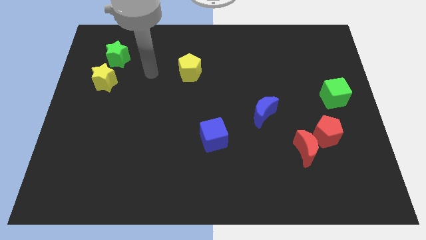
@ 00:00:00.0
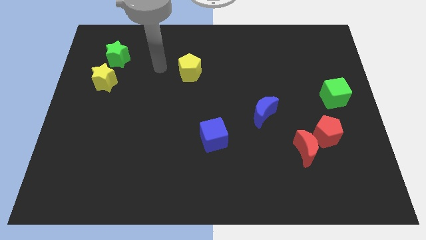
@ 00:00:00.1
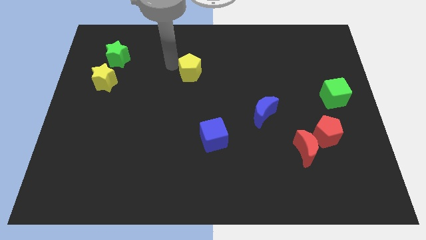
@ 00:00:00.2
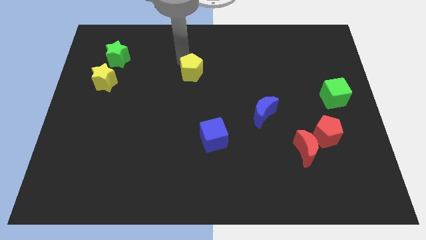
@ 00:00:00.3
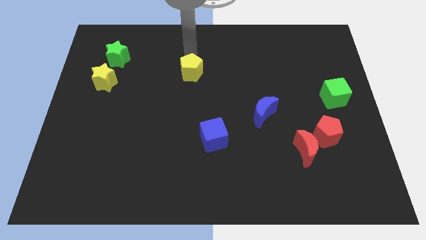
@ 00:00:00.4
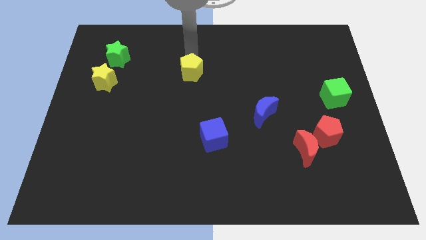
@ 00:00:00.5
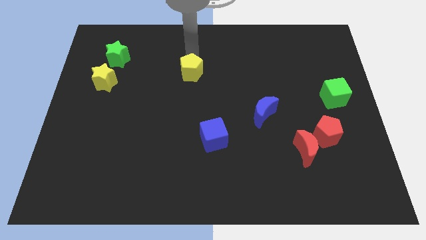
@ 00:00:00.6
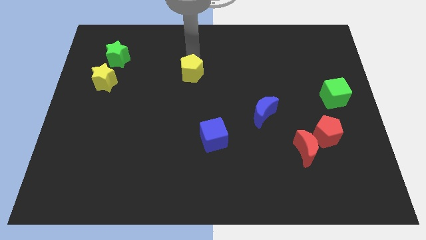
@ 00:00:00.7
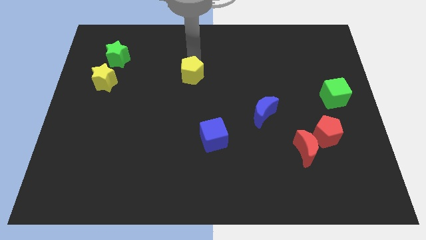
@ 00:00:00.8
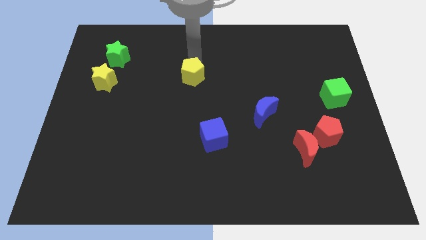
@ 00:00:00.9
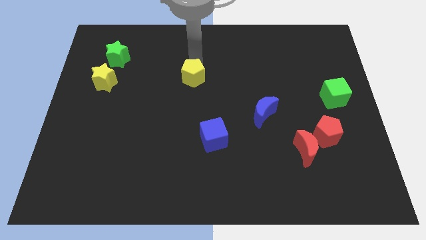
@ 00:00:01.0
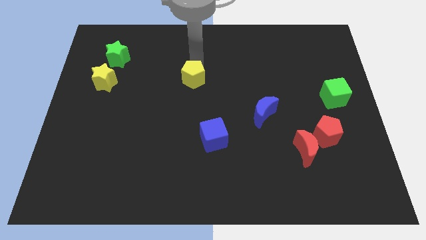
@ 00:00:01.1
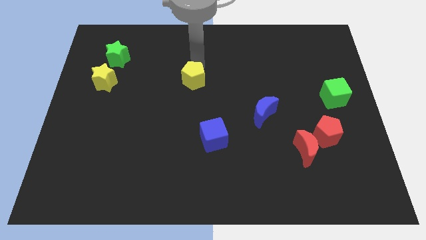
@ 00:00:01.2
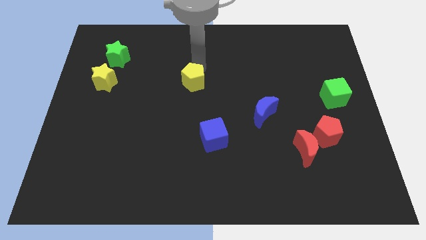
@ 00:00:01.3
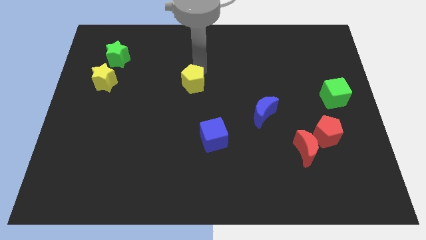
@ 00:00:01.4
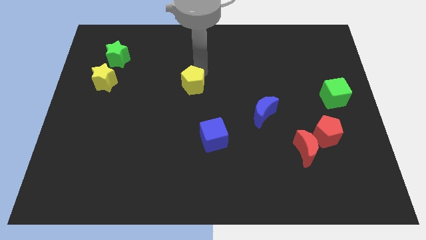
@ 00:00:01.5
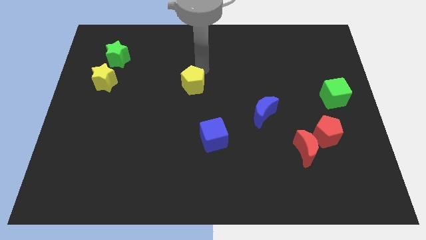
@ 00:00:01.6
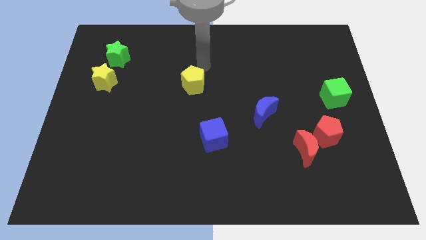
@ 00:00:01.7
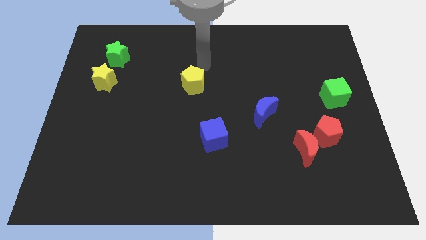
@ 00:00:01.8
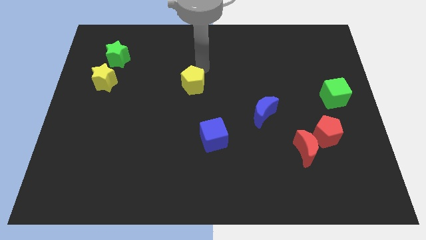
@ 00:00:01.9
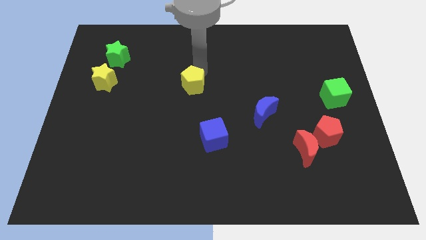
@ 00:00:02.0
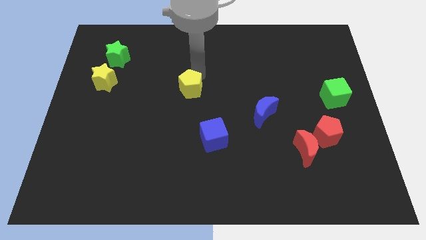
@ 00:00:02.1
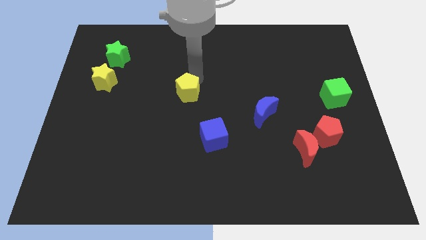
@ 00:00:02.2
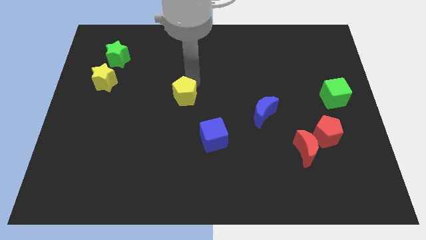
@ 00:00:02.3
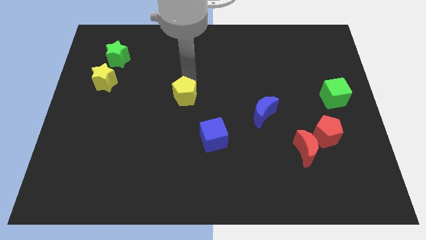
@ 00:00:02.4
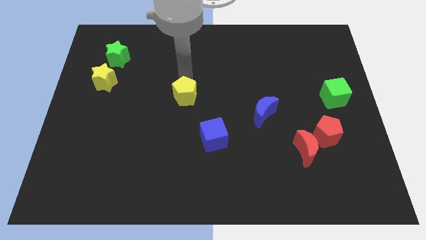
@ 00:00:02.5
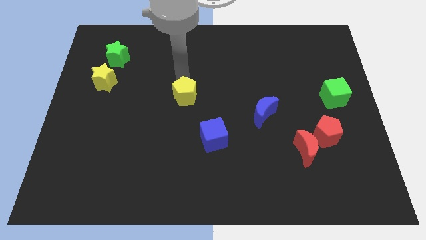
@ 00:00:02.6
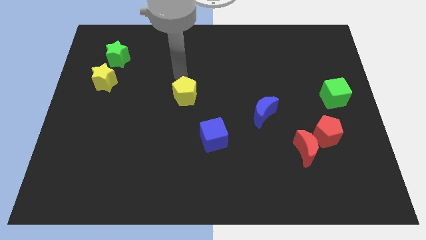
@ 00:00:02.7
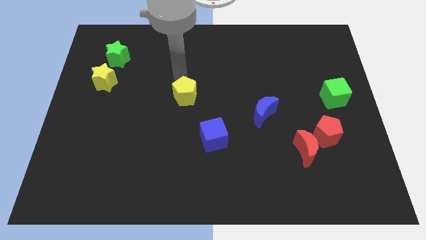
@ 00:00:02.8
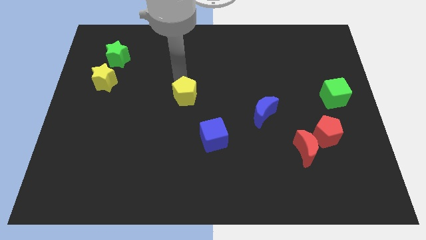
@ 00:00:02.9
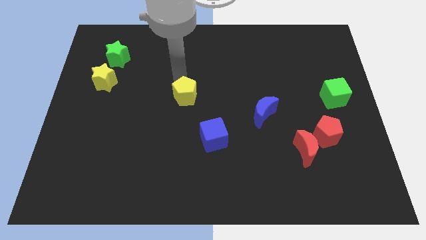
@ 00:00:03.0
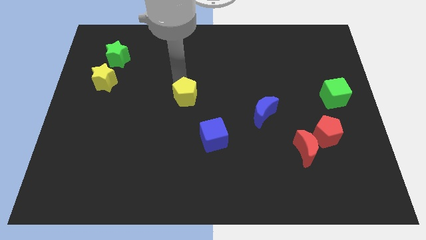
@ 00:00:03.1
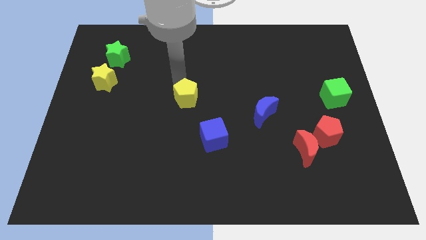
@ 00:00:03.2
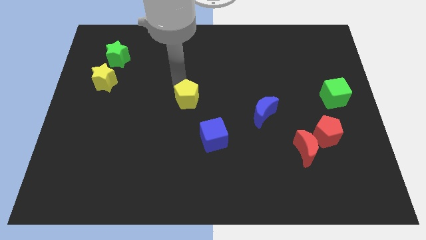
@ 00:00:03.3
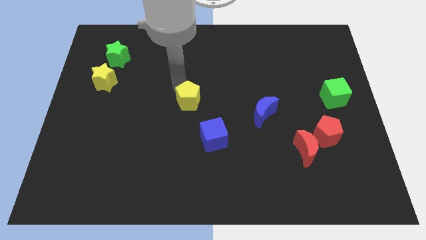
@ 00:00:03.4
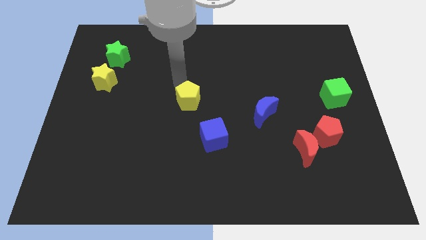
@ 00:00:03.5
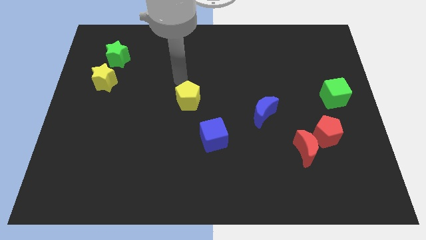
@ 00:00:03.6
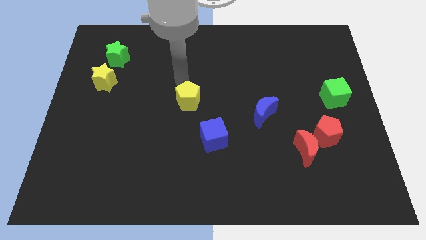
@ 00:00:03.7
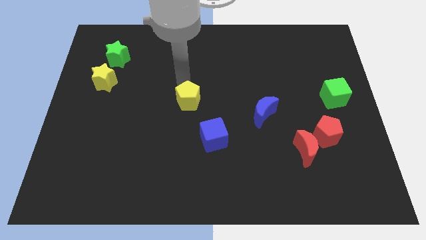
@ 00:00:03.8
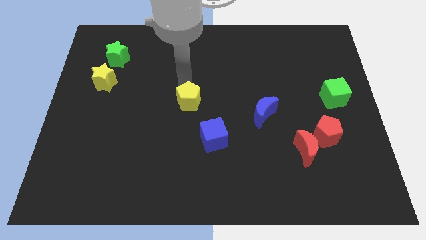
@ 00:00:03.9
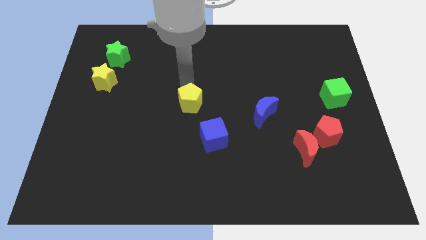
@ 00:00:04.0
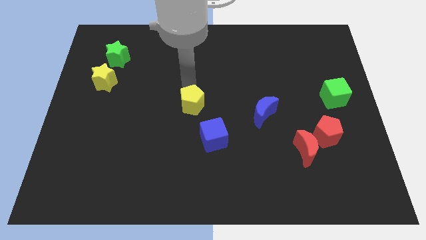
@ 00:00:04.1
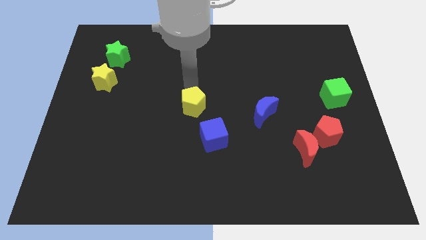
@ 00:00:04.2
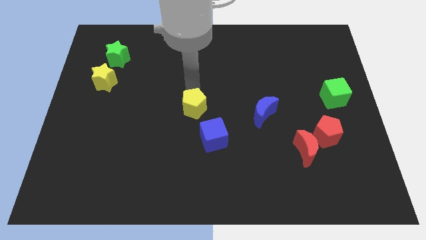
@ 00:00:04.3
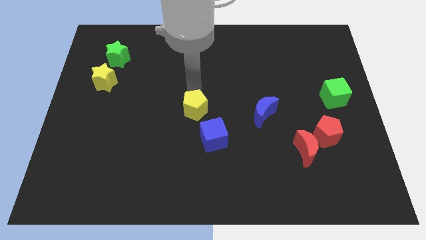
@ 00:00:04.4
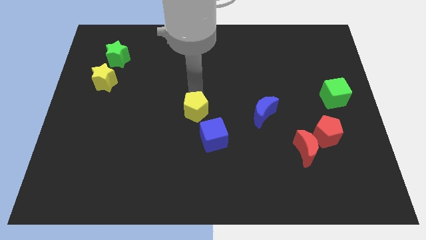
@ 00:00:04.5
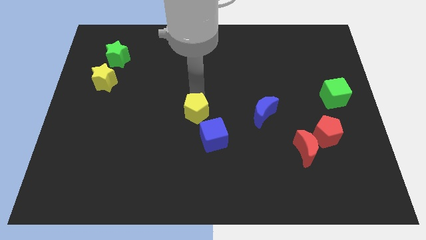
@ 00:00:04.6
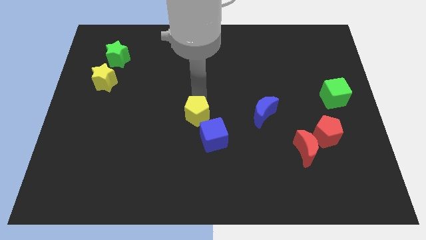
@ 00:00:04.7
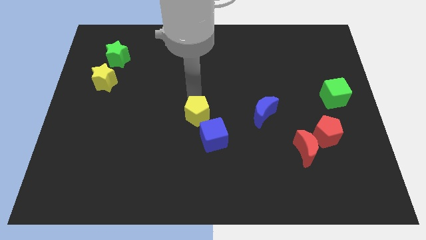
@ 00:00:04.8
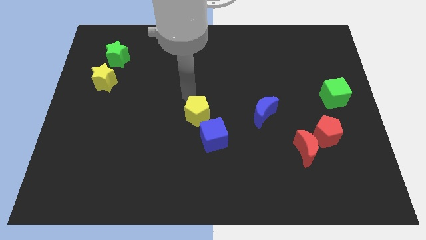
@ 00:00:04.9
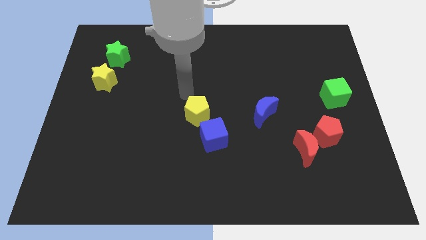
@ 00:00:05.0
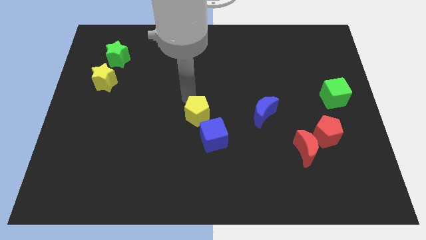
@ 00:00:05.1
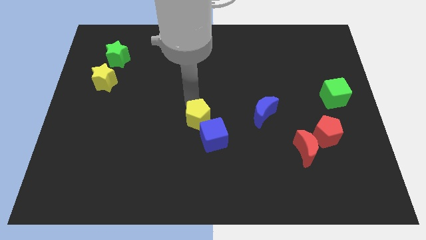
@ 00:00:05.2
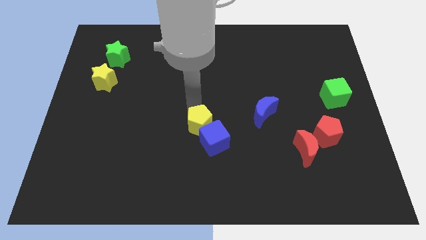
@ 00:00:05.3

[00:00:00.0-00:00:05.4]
push the yellow pentagon towards the blue cube

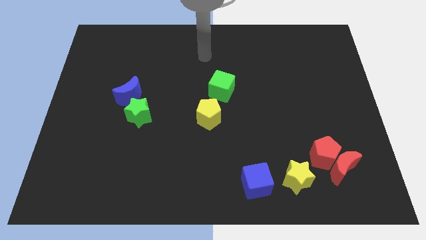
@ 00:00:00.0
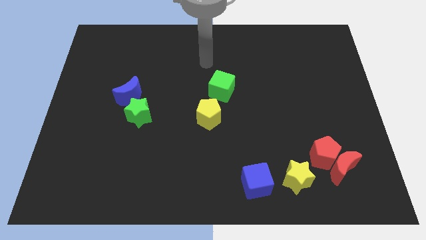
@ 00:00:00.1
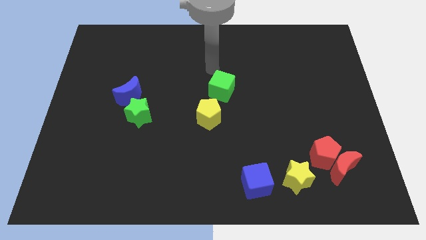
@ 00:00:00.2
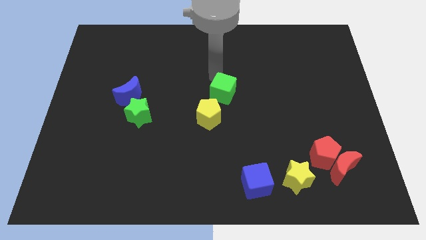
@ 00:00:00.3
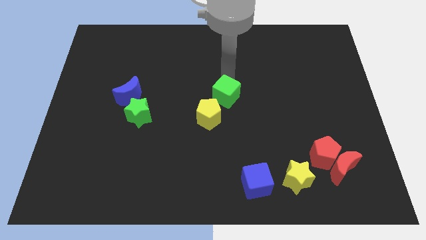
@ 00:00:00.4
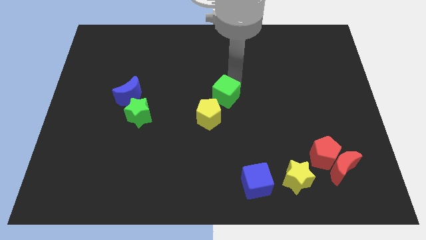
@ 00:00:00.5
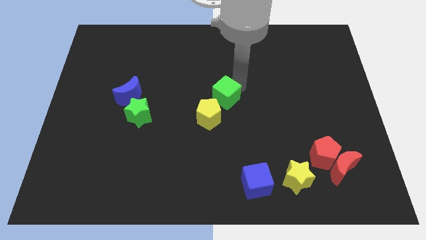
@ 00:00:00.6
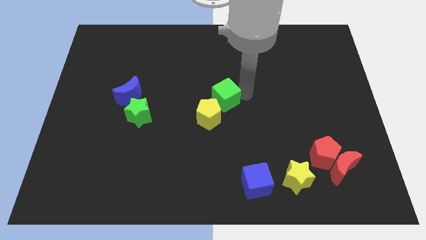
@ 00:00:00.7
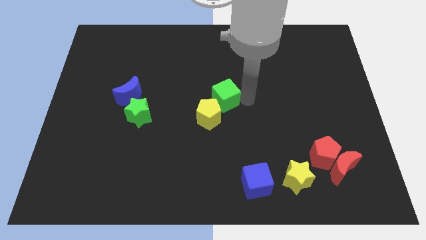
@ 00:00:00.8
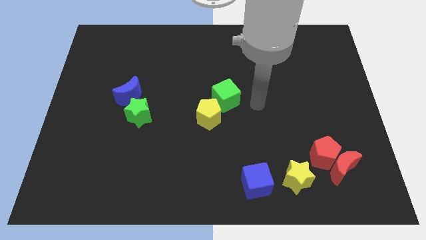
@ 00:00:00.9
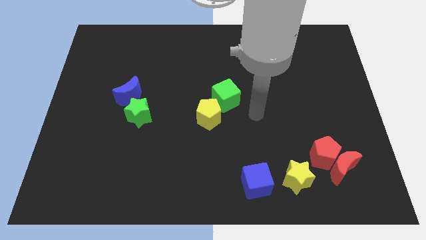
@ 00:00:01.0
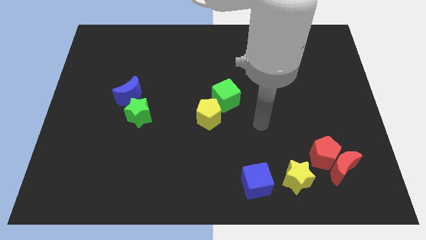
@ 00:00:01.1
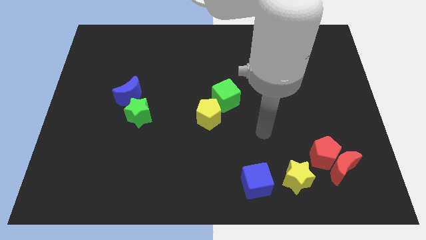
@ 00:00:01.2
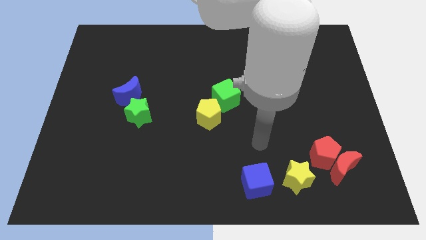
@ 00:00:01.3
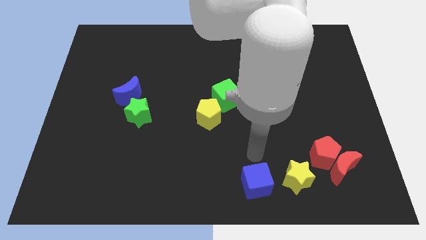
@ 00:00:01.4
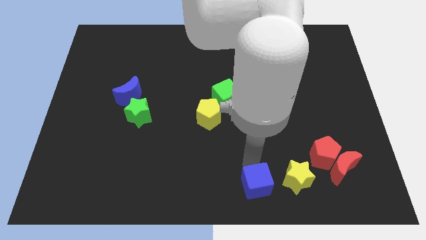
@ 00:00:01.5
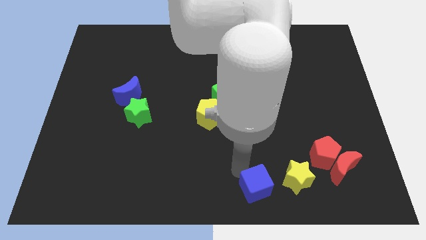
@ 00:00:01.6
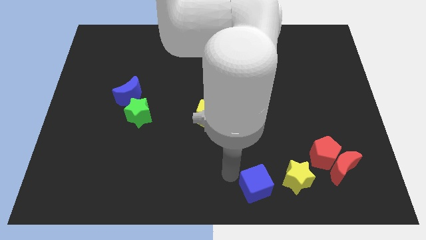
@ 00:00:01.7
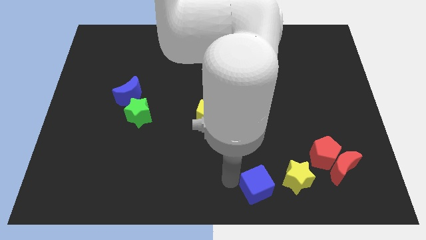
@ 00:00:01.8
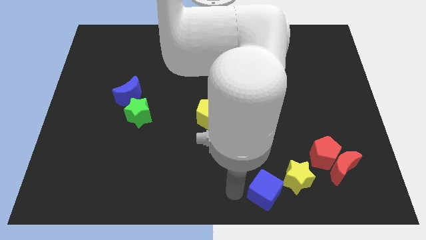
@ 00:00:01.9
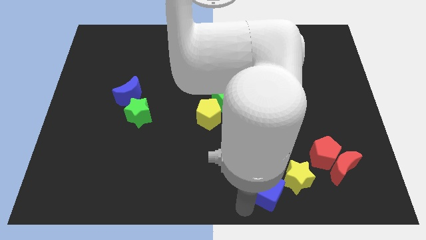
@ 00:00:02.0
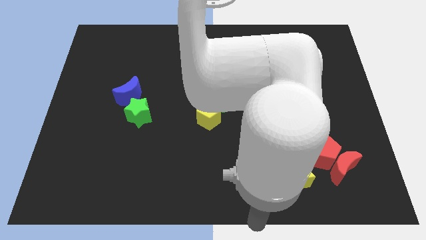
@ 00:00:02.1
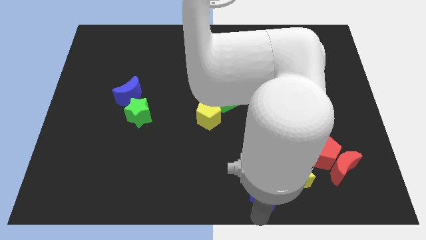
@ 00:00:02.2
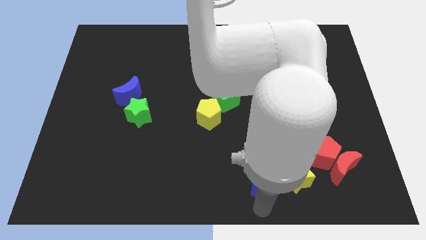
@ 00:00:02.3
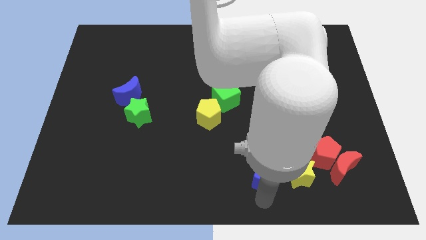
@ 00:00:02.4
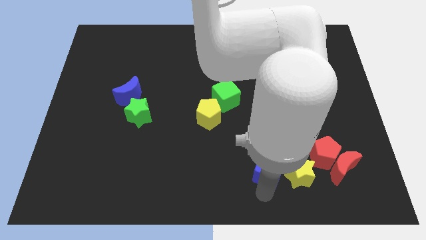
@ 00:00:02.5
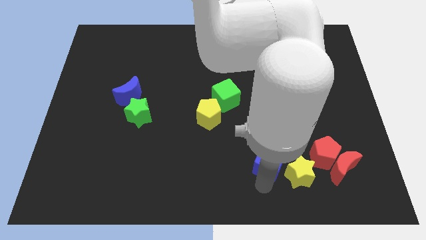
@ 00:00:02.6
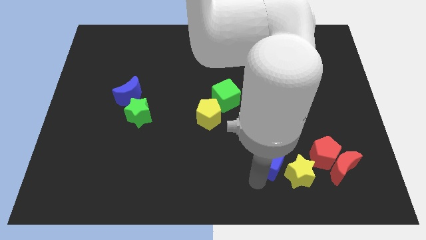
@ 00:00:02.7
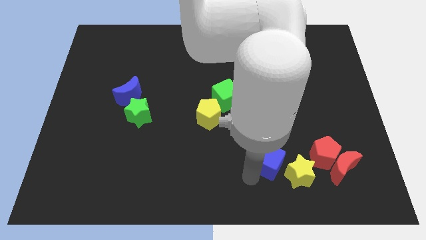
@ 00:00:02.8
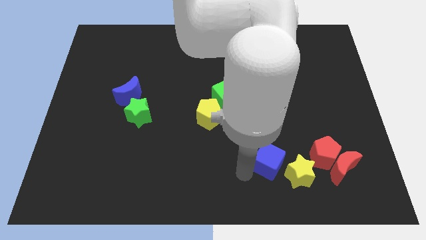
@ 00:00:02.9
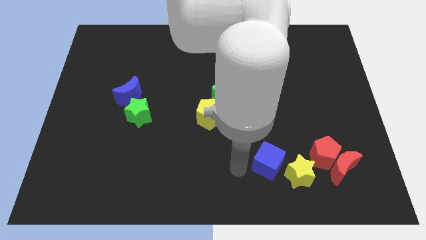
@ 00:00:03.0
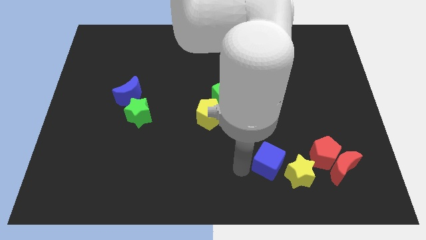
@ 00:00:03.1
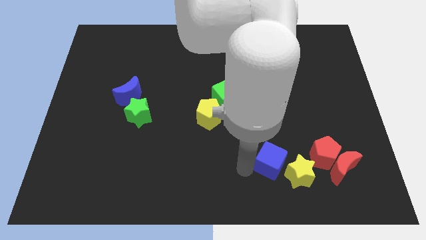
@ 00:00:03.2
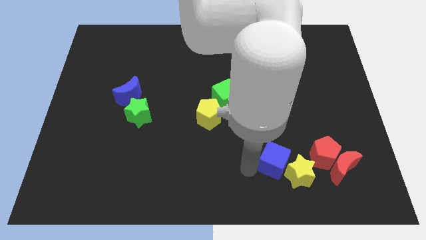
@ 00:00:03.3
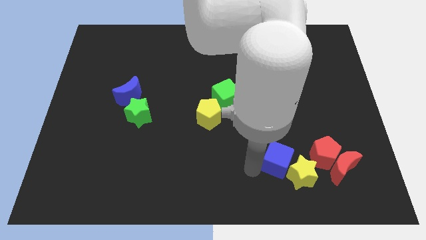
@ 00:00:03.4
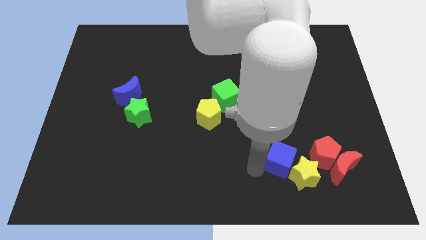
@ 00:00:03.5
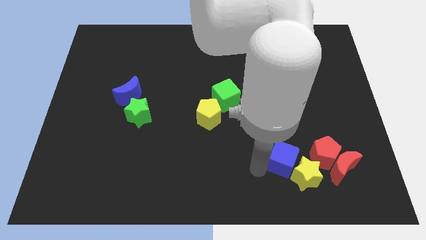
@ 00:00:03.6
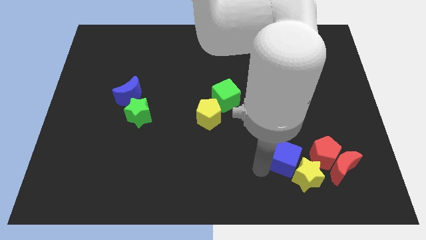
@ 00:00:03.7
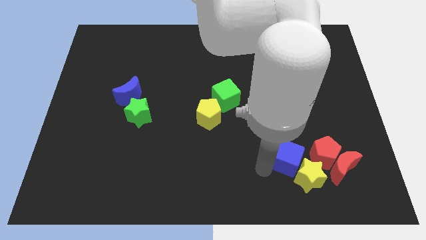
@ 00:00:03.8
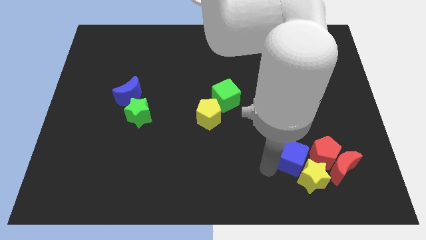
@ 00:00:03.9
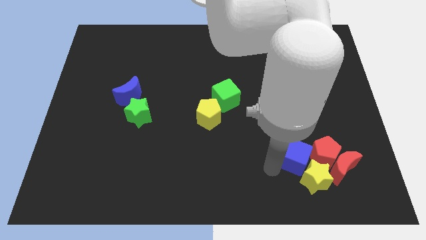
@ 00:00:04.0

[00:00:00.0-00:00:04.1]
put the blue cube close to the red pentagon
